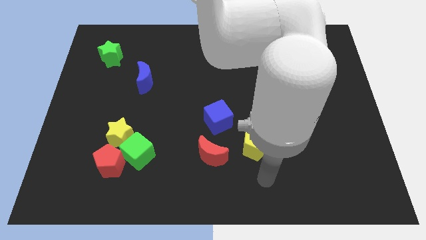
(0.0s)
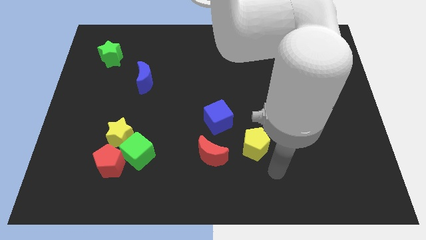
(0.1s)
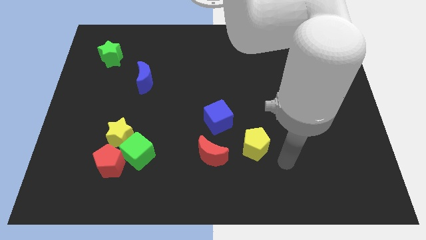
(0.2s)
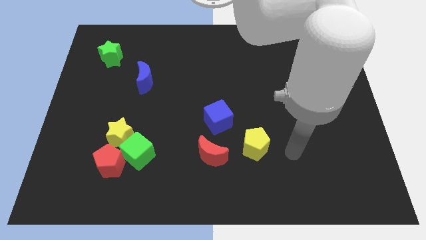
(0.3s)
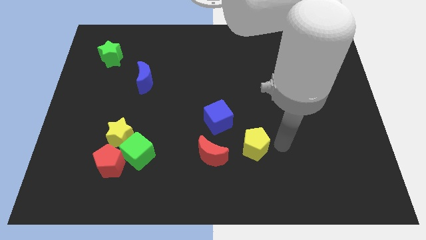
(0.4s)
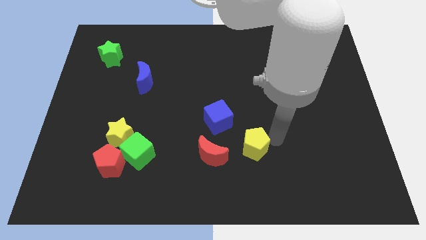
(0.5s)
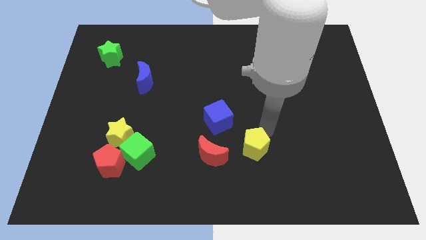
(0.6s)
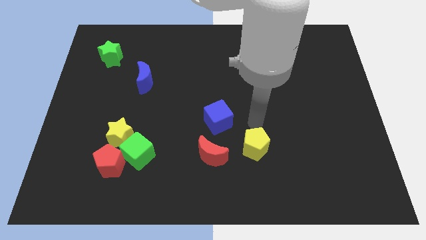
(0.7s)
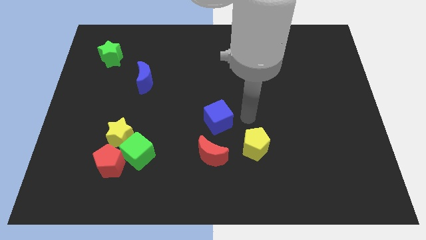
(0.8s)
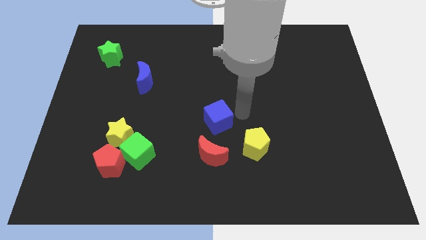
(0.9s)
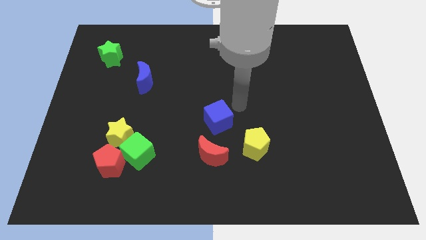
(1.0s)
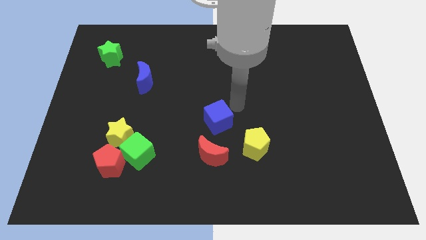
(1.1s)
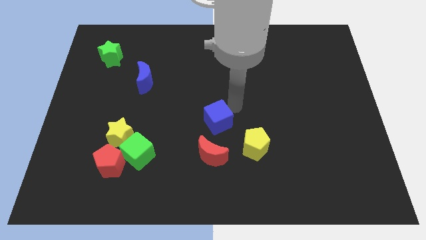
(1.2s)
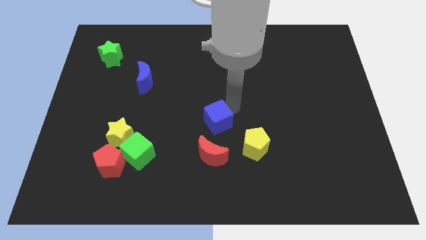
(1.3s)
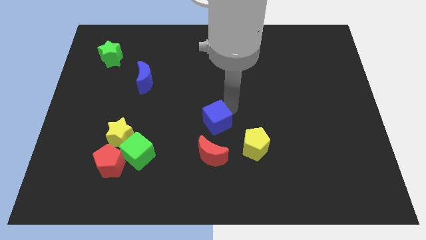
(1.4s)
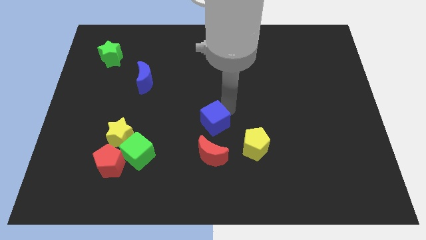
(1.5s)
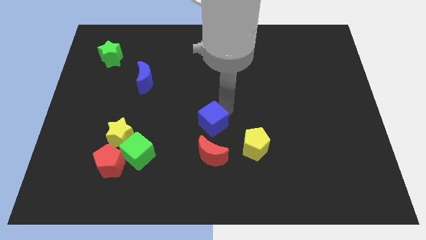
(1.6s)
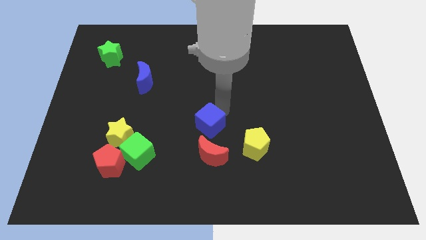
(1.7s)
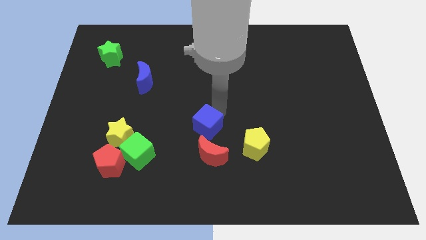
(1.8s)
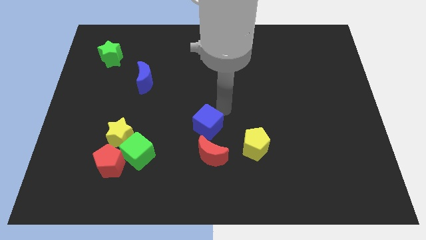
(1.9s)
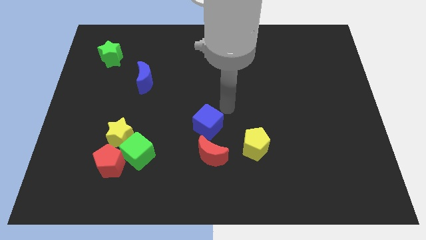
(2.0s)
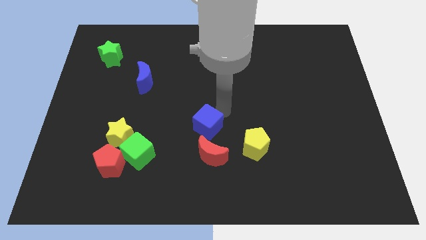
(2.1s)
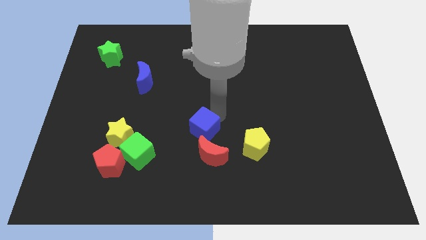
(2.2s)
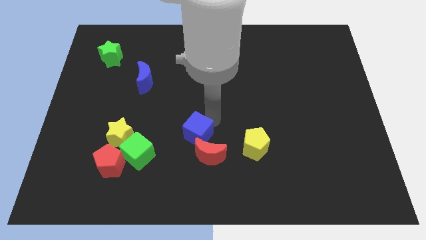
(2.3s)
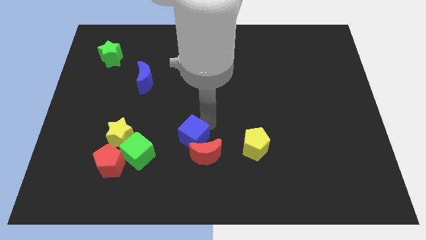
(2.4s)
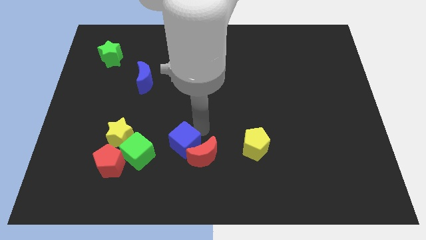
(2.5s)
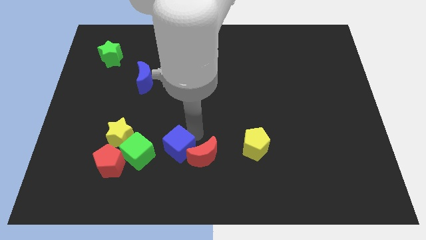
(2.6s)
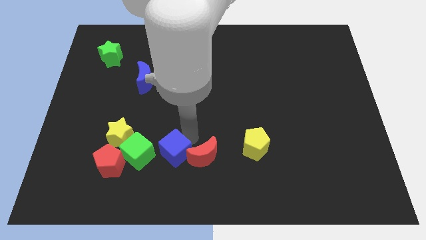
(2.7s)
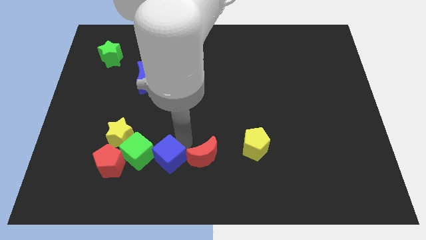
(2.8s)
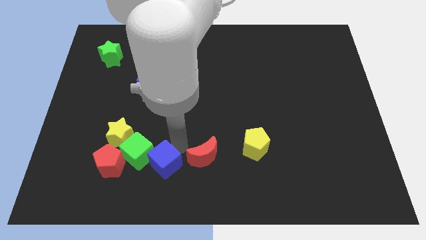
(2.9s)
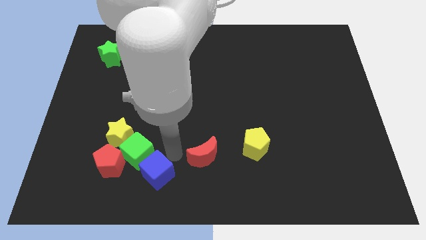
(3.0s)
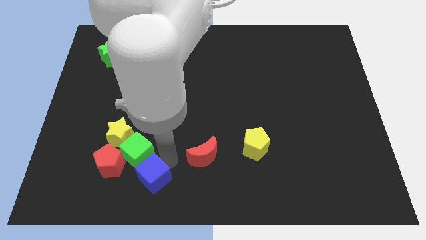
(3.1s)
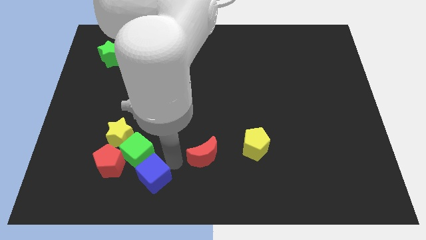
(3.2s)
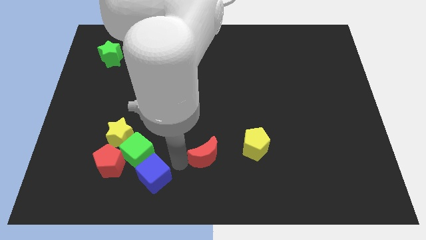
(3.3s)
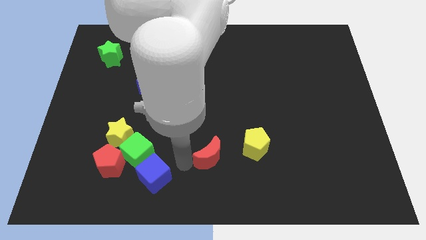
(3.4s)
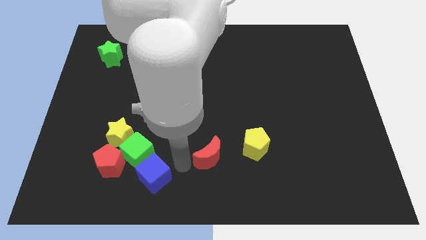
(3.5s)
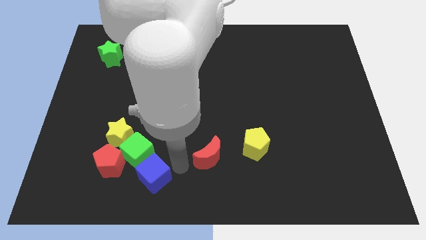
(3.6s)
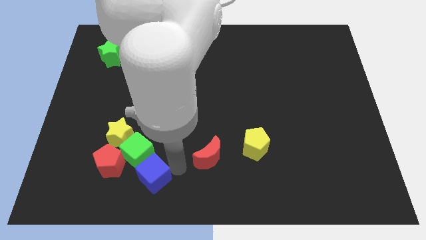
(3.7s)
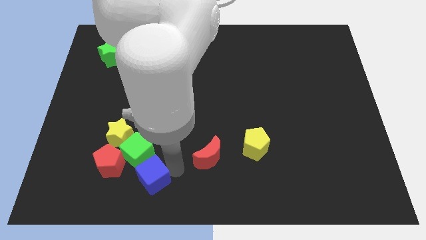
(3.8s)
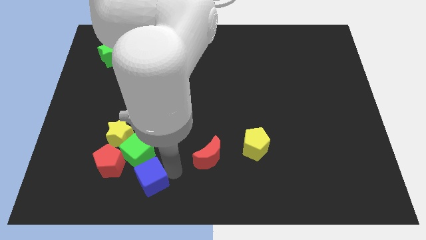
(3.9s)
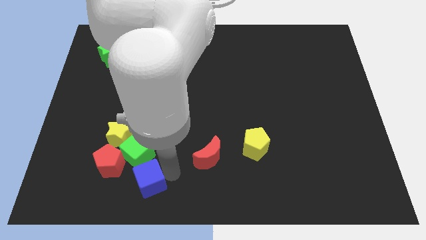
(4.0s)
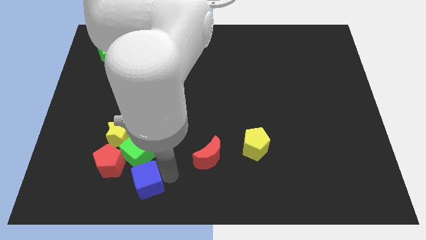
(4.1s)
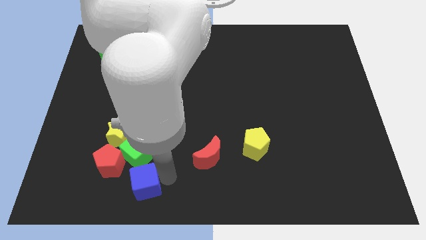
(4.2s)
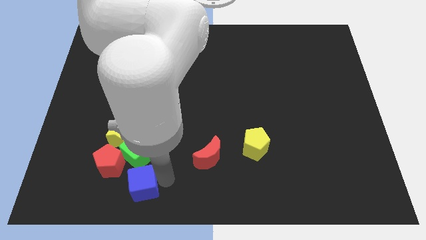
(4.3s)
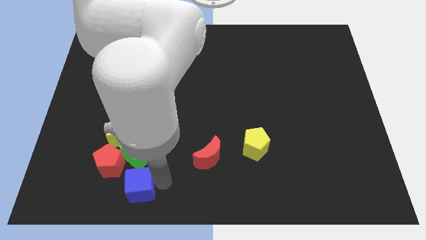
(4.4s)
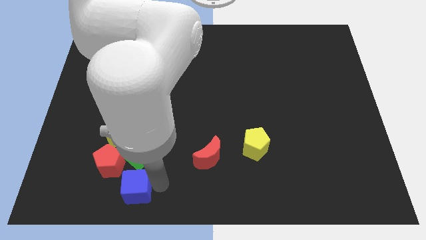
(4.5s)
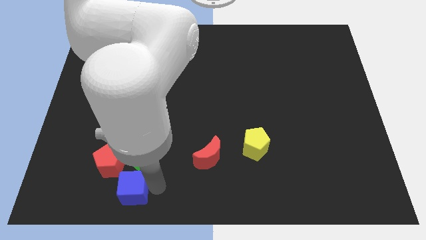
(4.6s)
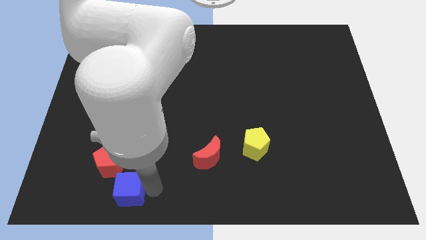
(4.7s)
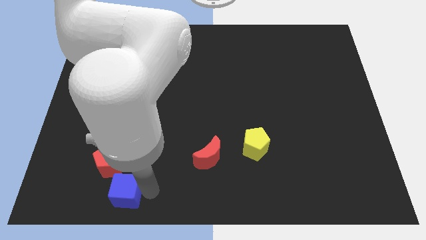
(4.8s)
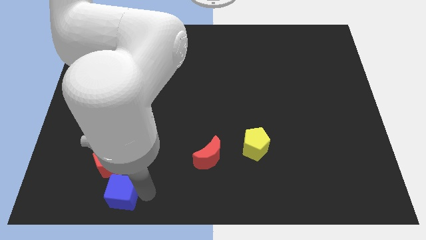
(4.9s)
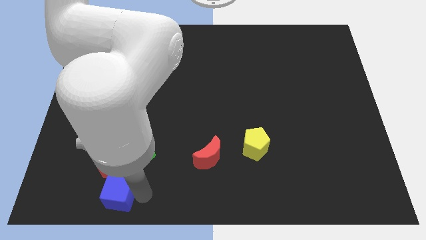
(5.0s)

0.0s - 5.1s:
move the blue cube to the bottom left side of the green cube

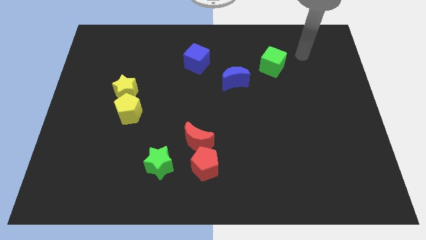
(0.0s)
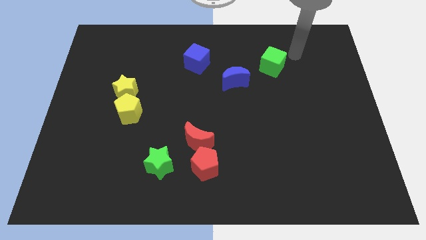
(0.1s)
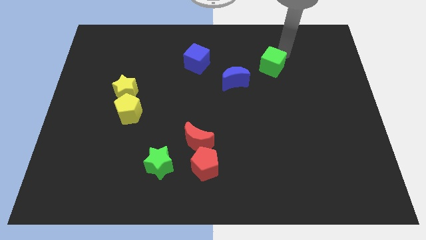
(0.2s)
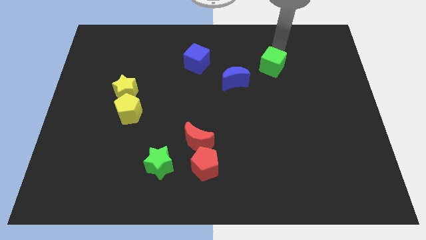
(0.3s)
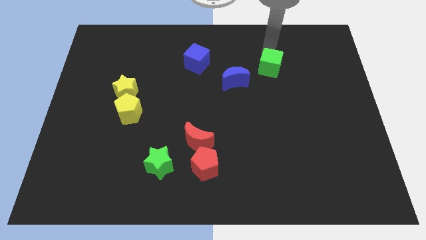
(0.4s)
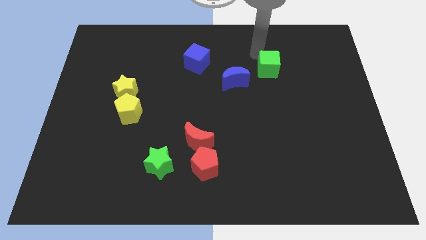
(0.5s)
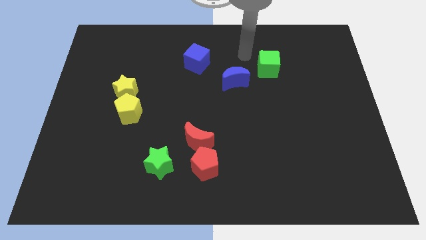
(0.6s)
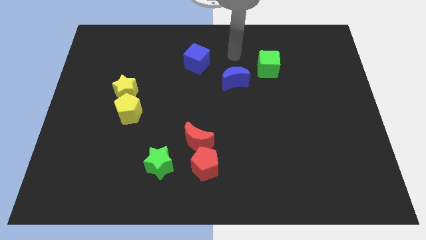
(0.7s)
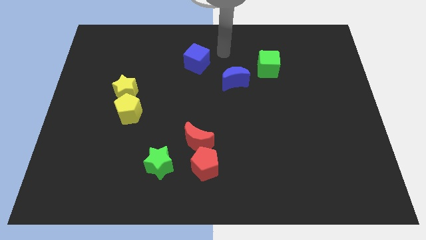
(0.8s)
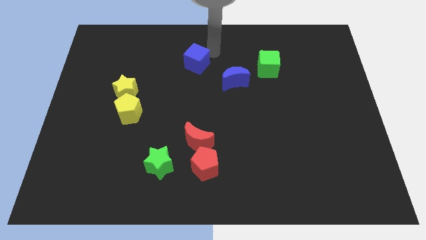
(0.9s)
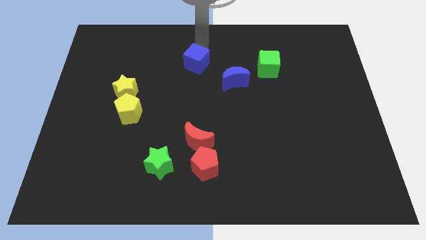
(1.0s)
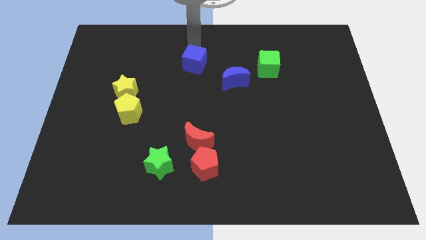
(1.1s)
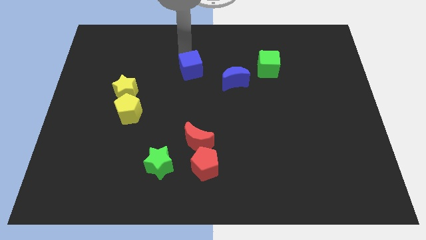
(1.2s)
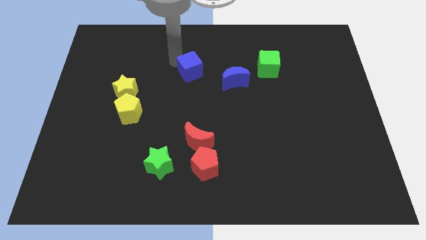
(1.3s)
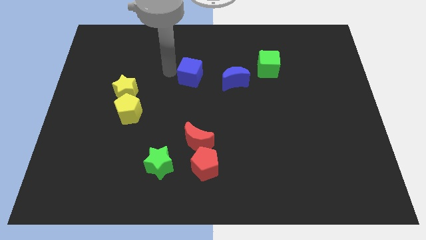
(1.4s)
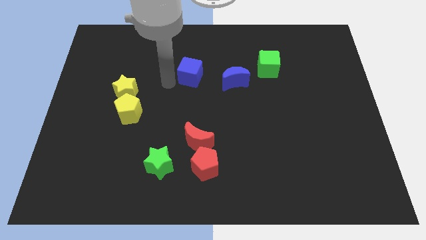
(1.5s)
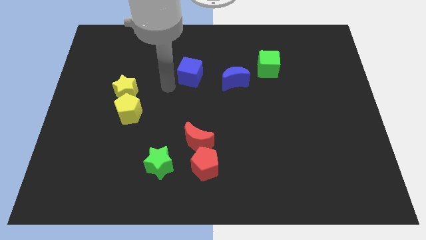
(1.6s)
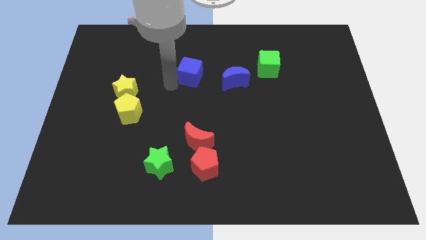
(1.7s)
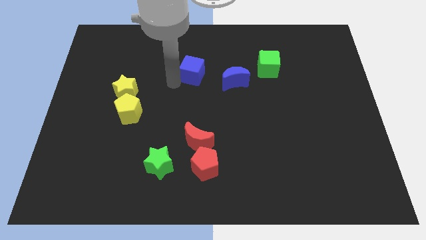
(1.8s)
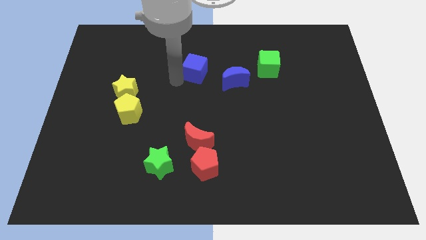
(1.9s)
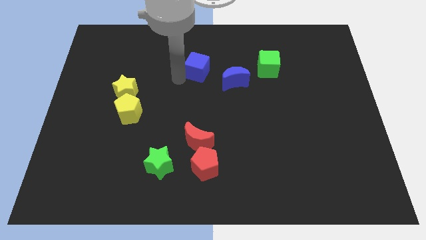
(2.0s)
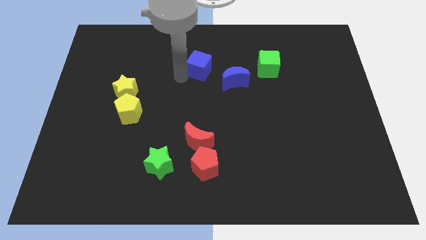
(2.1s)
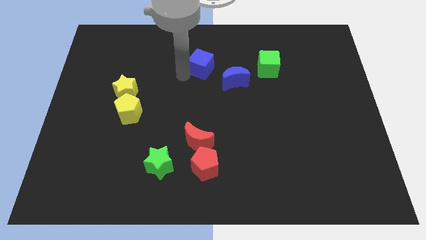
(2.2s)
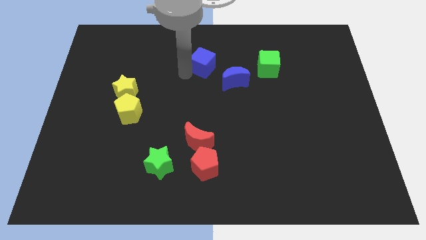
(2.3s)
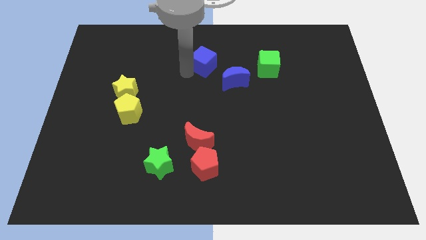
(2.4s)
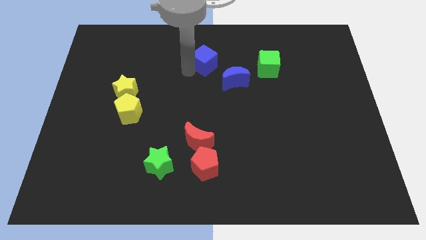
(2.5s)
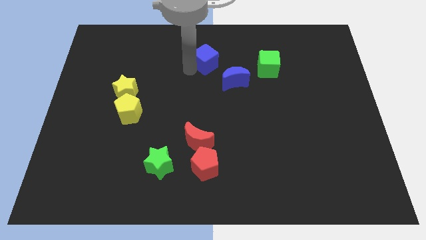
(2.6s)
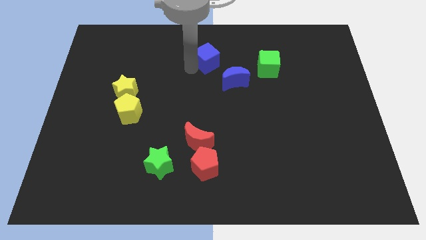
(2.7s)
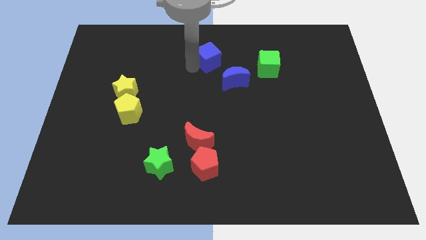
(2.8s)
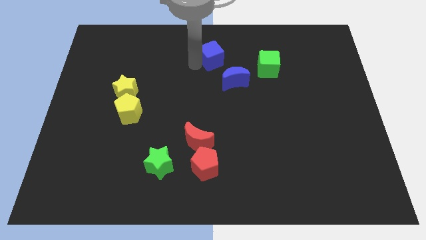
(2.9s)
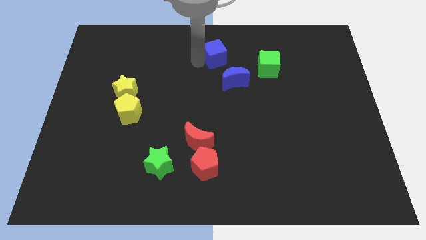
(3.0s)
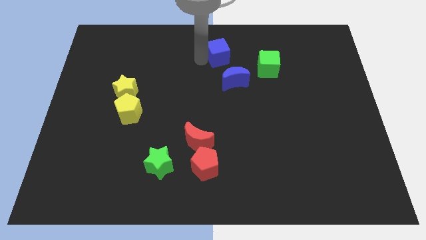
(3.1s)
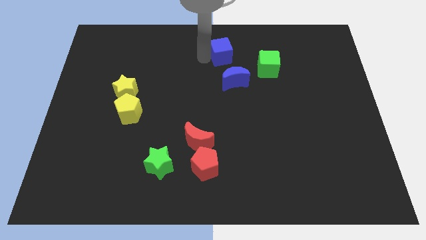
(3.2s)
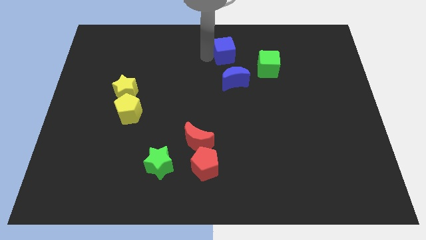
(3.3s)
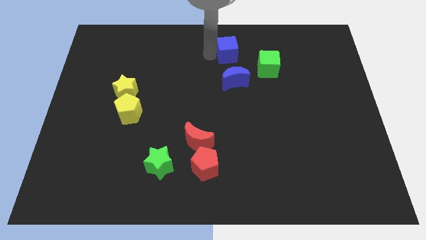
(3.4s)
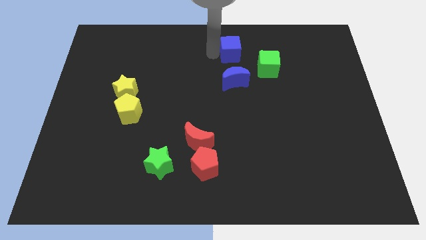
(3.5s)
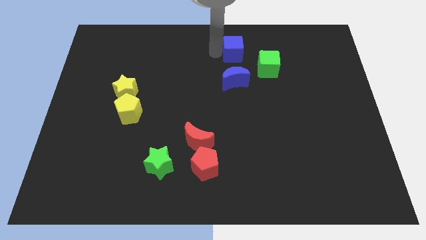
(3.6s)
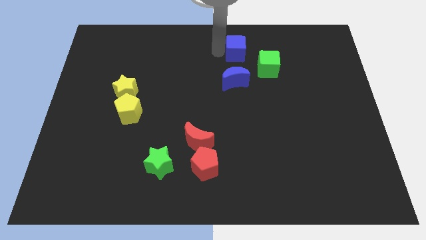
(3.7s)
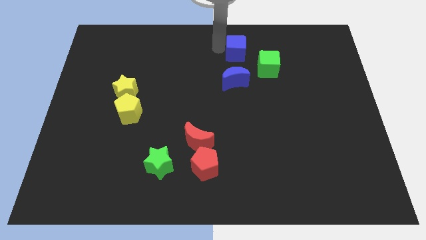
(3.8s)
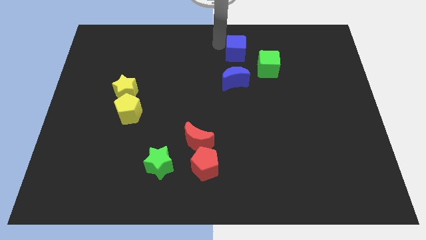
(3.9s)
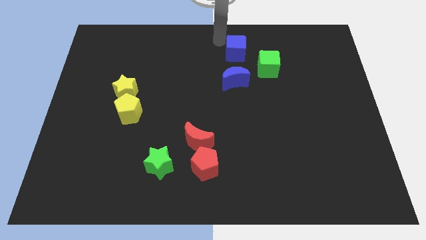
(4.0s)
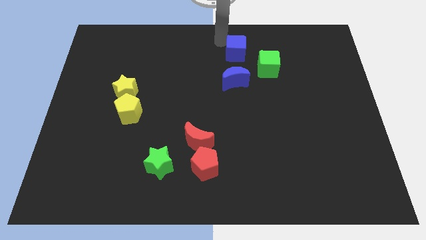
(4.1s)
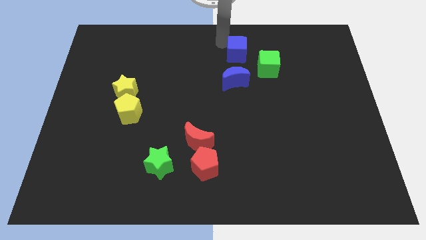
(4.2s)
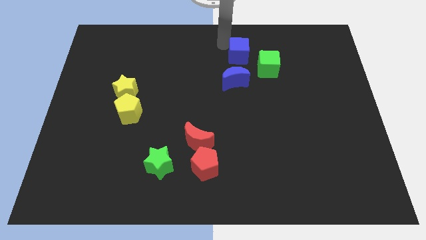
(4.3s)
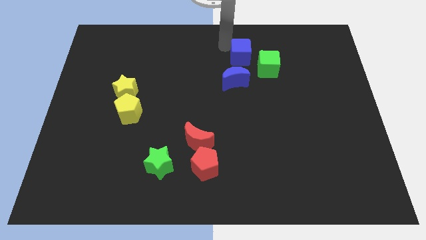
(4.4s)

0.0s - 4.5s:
move the blue cube to the top right of the blue moon
